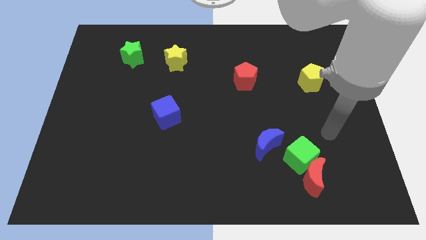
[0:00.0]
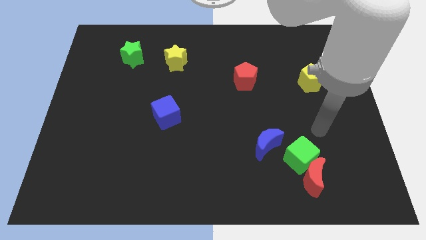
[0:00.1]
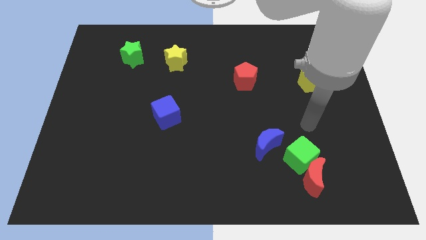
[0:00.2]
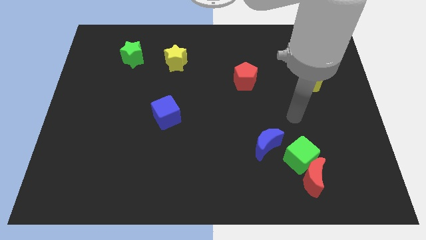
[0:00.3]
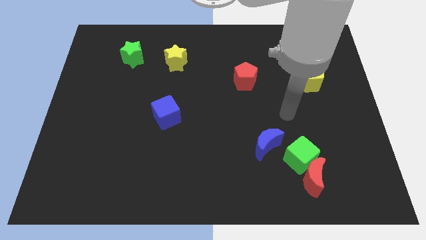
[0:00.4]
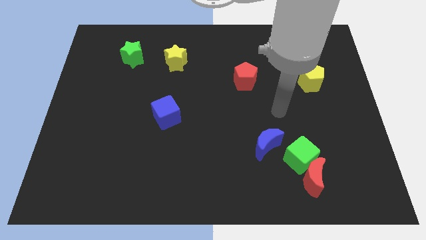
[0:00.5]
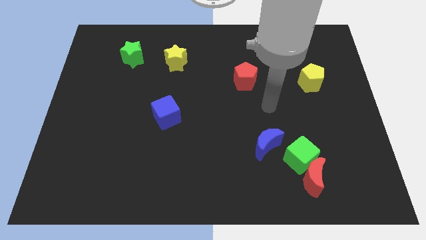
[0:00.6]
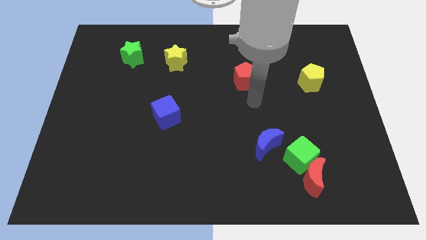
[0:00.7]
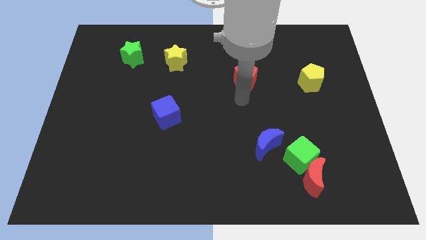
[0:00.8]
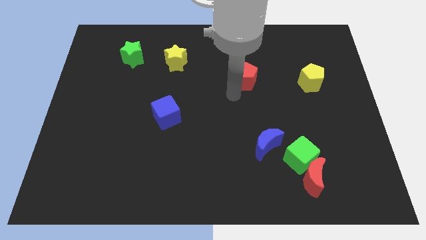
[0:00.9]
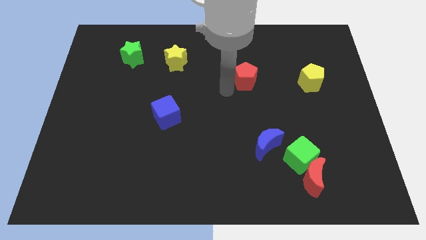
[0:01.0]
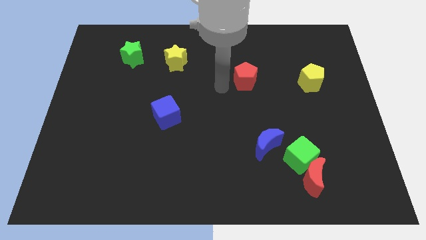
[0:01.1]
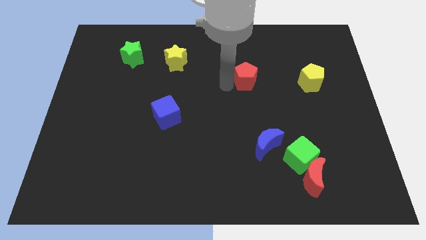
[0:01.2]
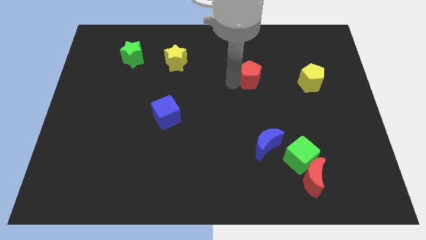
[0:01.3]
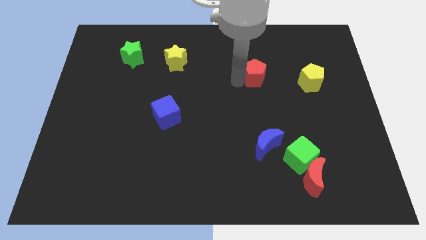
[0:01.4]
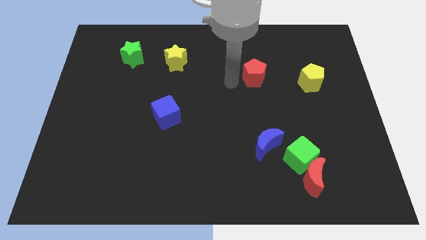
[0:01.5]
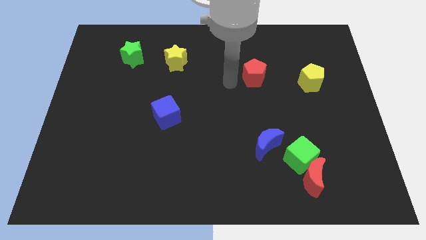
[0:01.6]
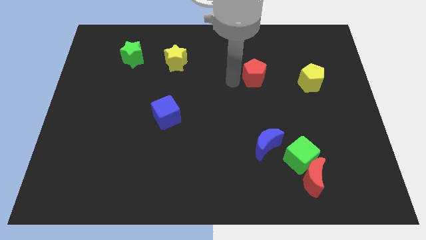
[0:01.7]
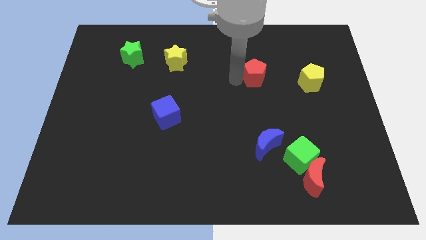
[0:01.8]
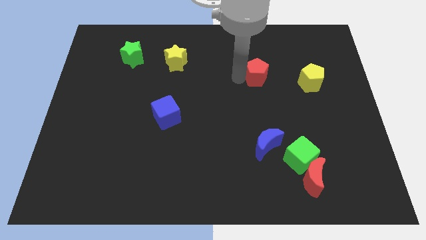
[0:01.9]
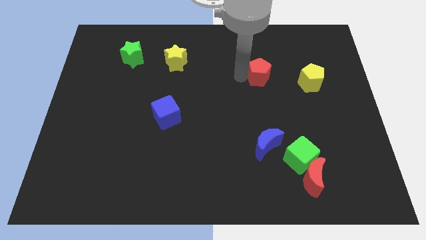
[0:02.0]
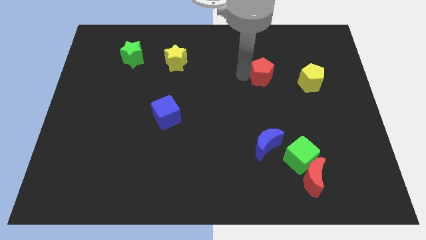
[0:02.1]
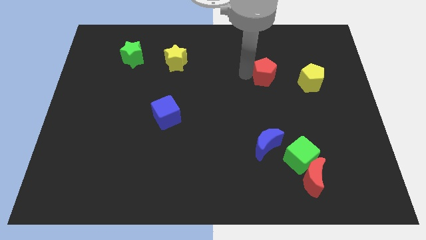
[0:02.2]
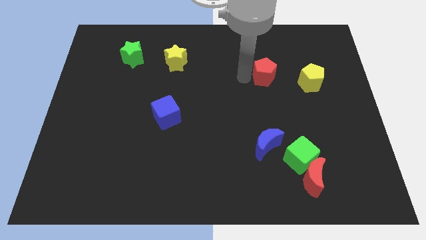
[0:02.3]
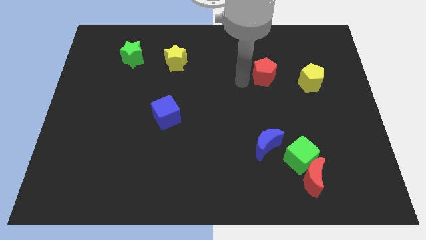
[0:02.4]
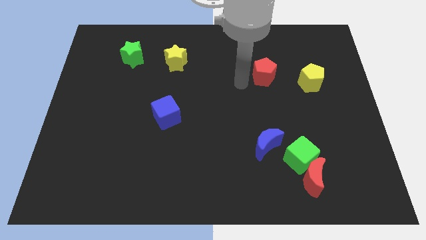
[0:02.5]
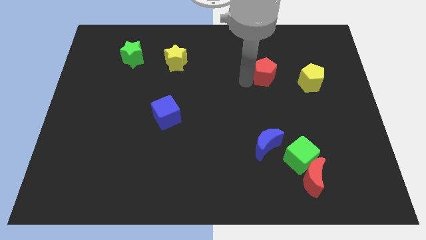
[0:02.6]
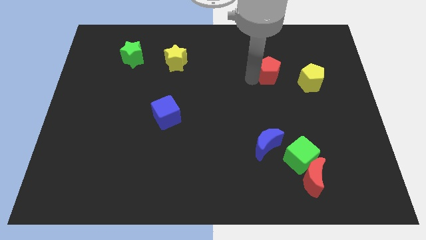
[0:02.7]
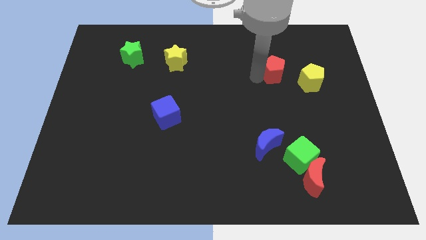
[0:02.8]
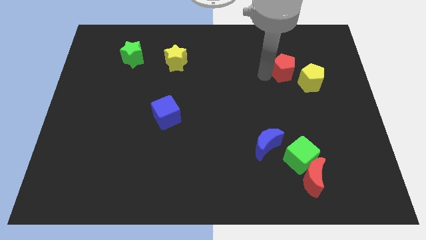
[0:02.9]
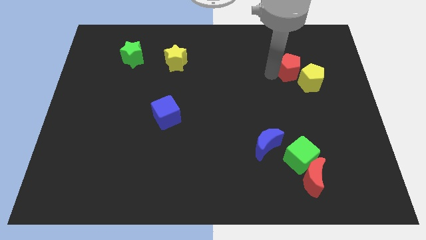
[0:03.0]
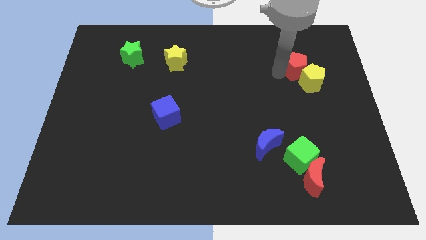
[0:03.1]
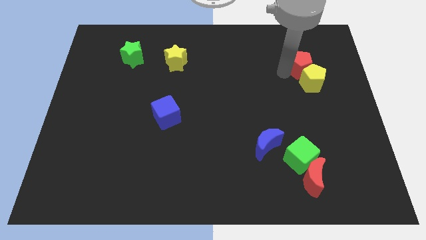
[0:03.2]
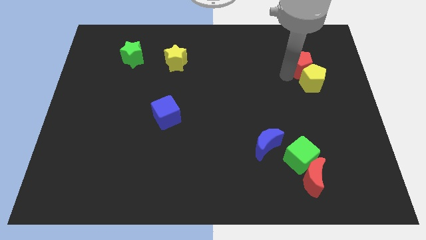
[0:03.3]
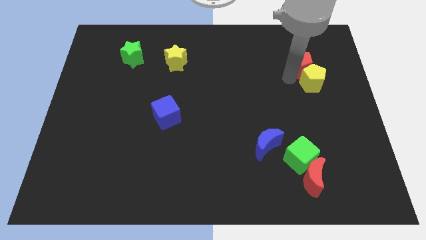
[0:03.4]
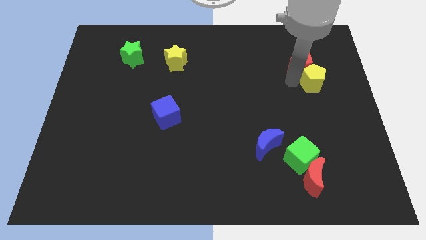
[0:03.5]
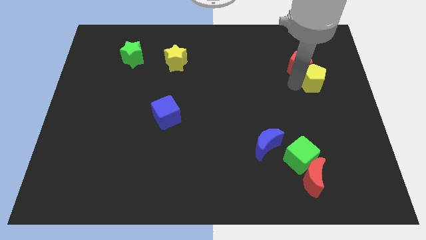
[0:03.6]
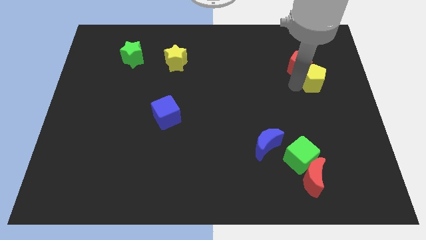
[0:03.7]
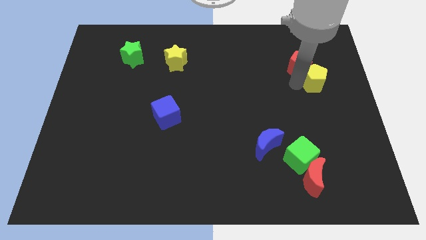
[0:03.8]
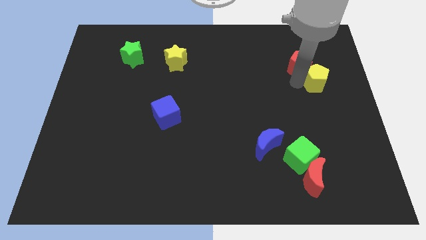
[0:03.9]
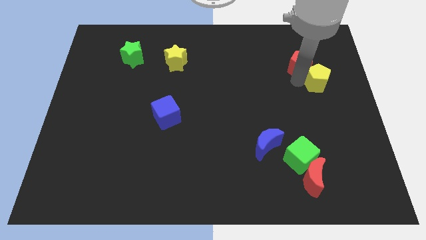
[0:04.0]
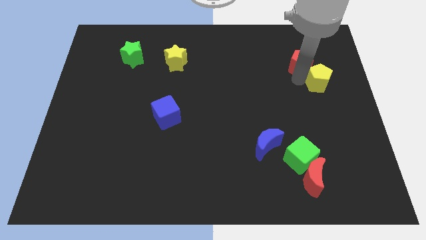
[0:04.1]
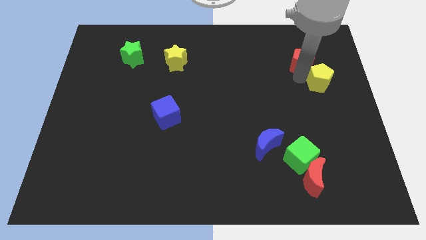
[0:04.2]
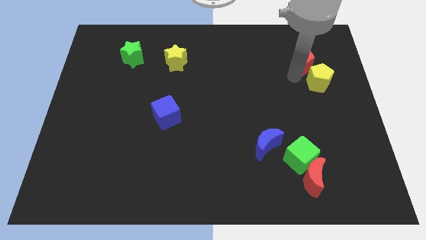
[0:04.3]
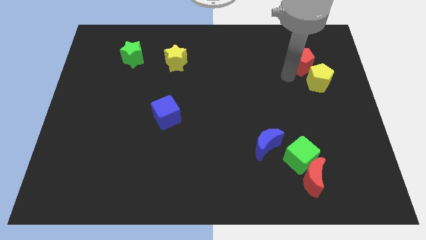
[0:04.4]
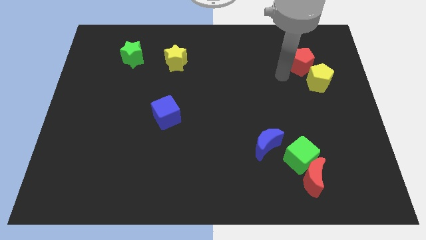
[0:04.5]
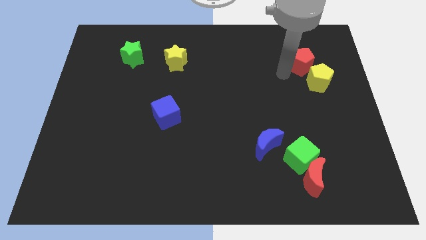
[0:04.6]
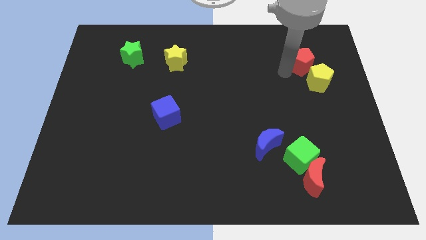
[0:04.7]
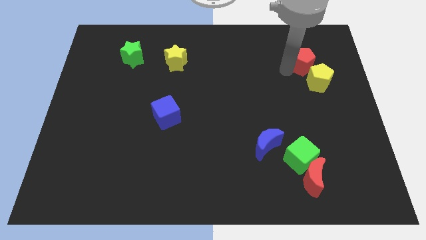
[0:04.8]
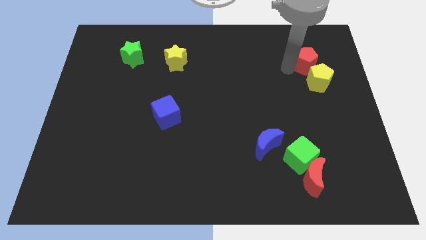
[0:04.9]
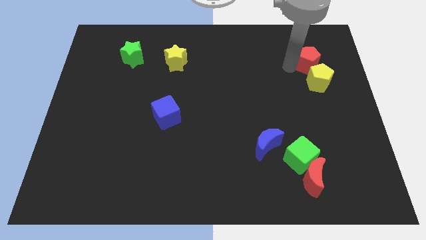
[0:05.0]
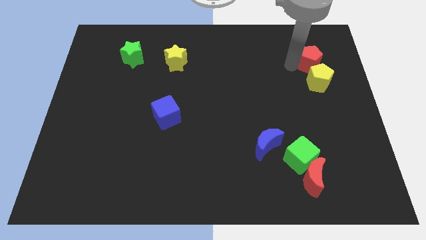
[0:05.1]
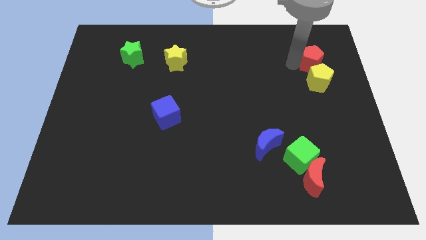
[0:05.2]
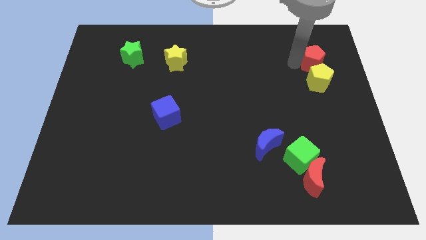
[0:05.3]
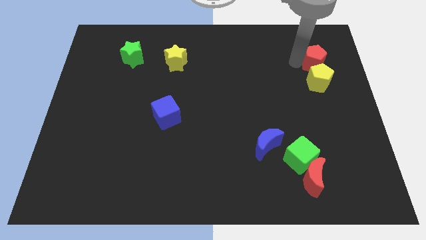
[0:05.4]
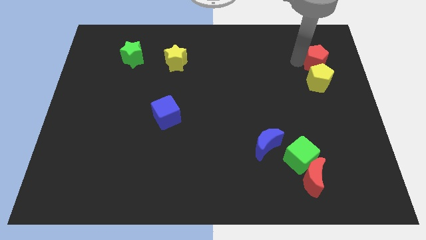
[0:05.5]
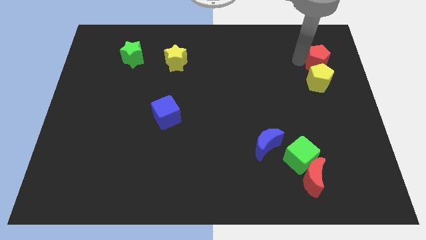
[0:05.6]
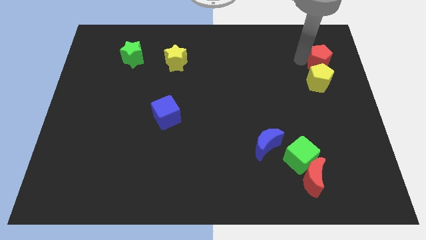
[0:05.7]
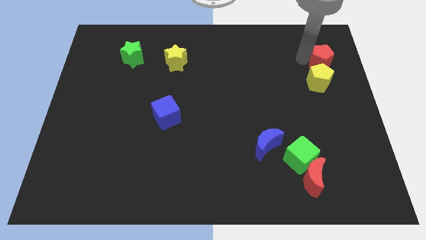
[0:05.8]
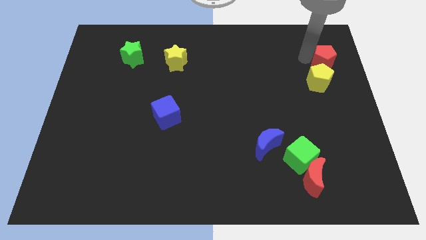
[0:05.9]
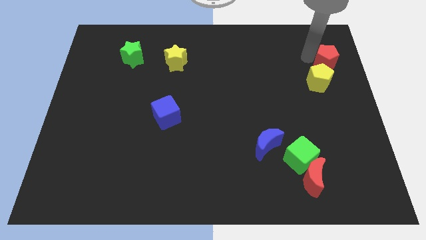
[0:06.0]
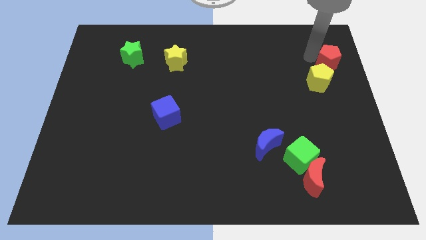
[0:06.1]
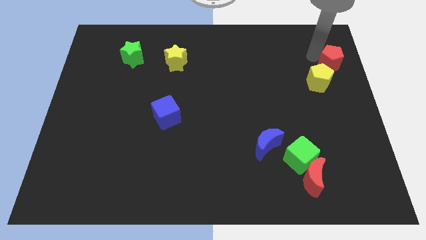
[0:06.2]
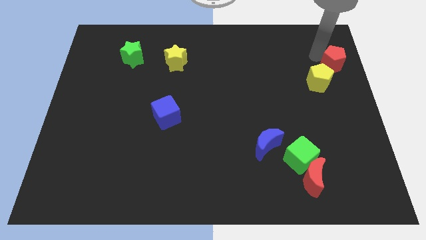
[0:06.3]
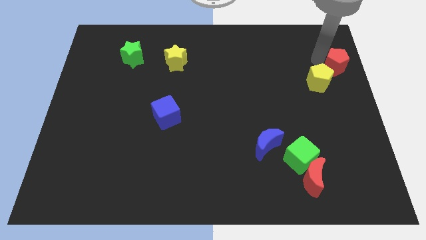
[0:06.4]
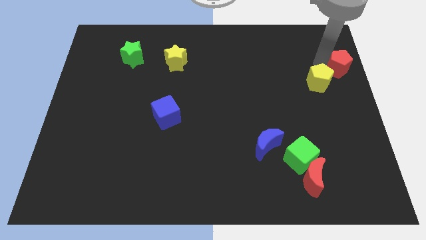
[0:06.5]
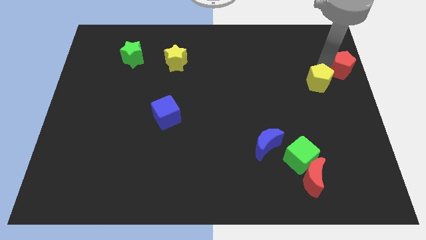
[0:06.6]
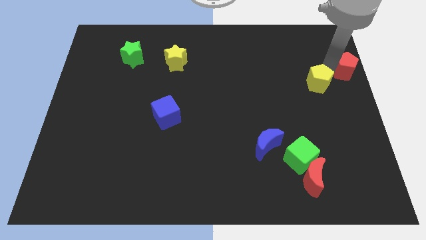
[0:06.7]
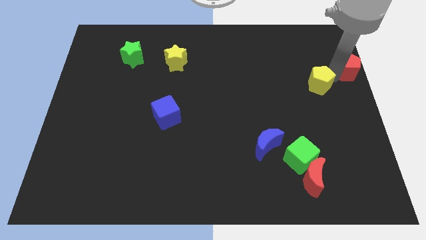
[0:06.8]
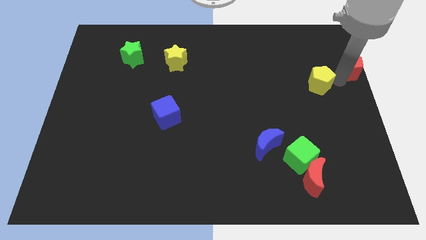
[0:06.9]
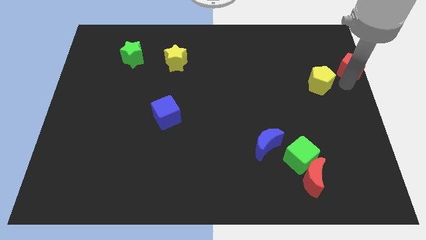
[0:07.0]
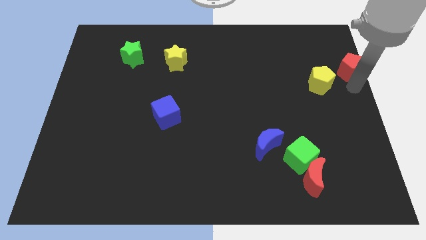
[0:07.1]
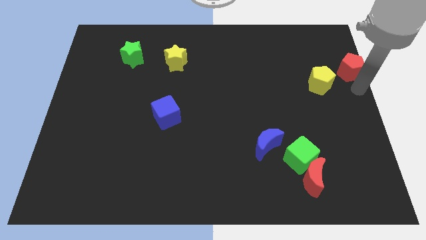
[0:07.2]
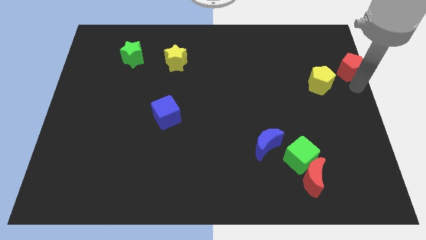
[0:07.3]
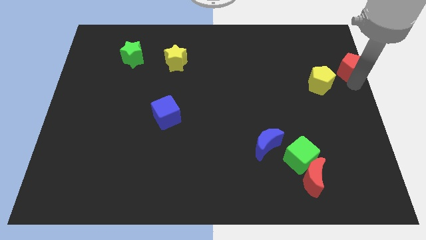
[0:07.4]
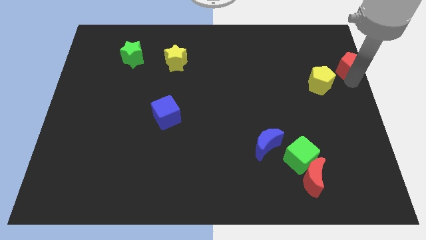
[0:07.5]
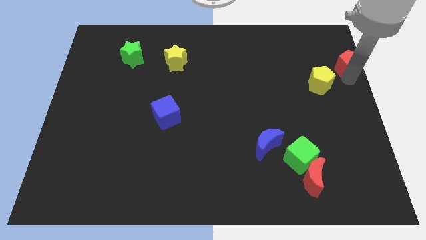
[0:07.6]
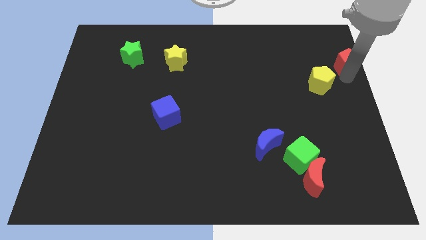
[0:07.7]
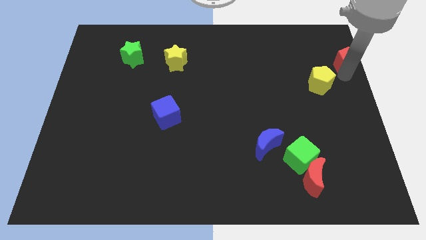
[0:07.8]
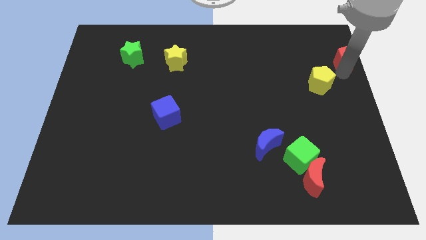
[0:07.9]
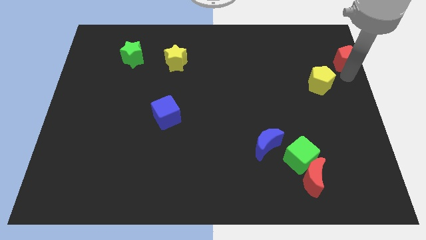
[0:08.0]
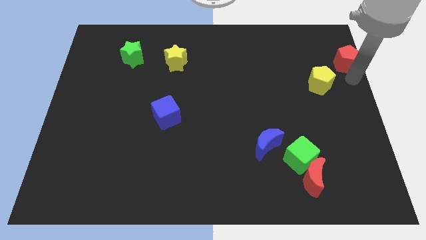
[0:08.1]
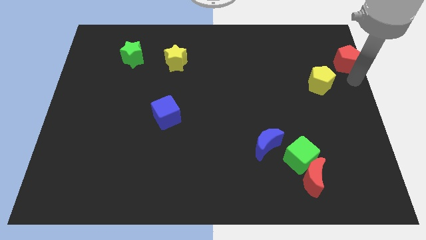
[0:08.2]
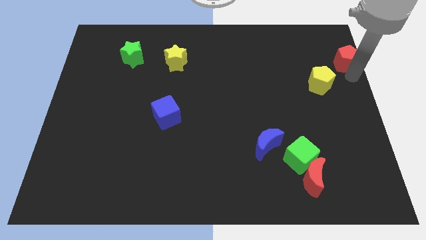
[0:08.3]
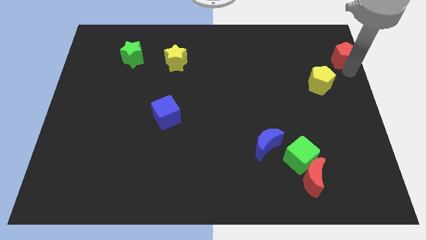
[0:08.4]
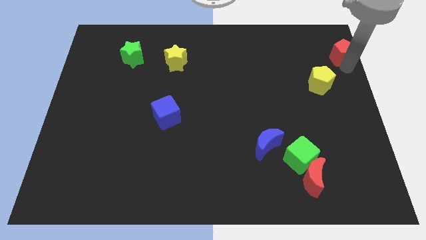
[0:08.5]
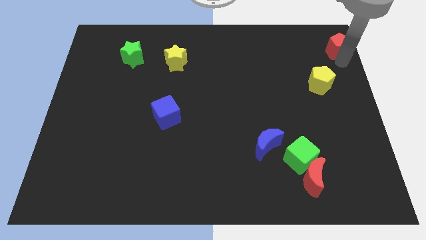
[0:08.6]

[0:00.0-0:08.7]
slide the red pentagon to the top right corner
